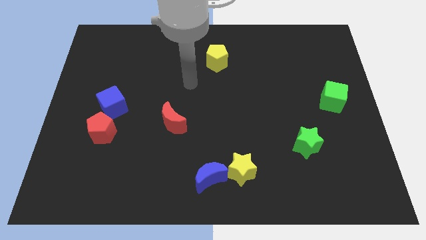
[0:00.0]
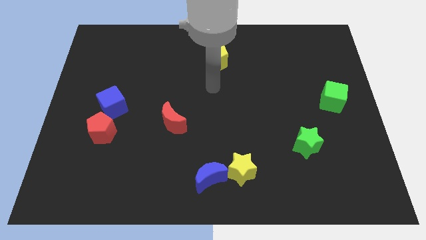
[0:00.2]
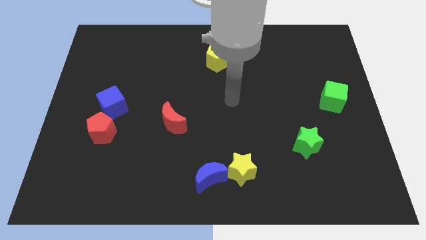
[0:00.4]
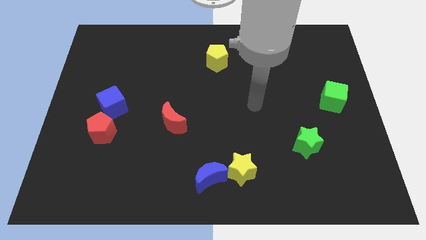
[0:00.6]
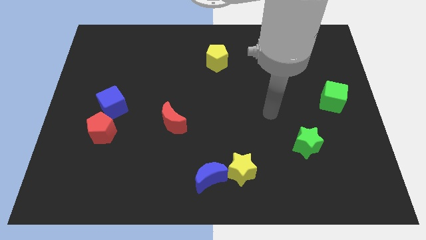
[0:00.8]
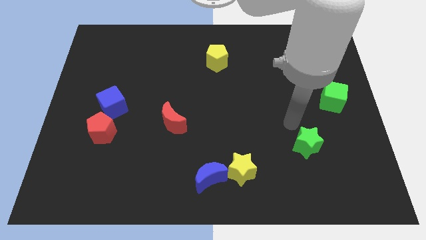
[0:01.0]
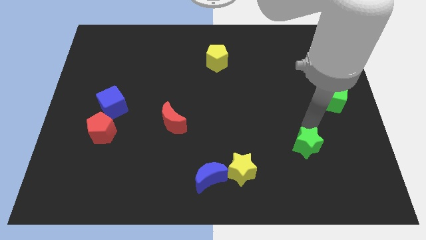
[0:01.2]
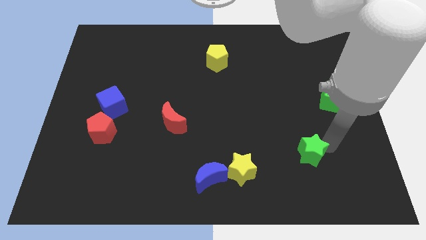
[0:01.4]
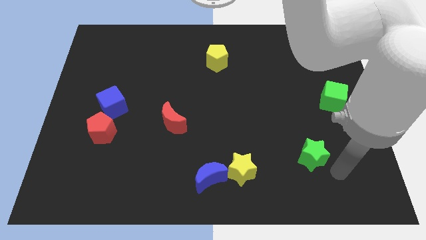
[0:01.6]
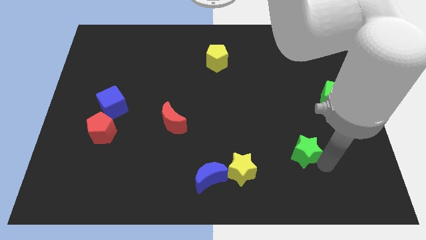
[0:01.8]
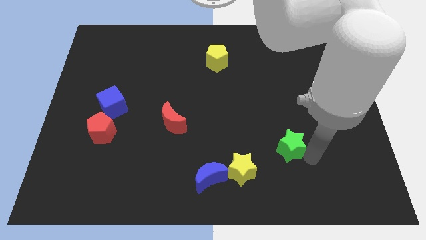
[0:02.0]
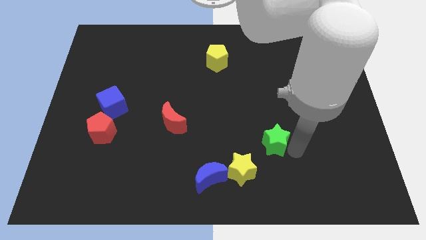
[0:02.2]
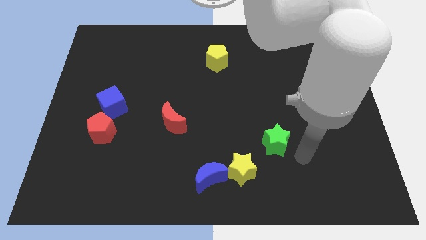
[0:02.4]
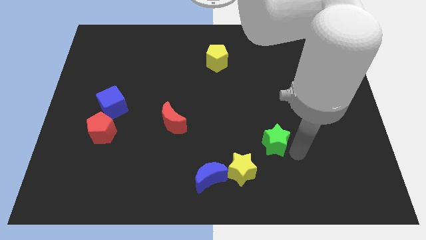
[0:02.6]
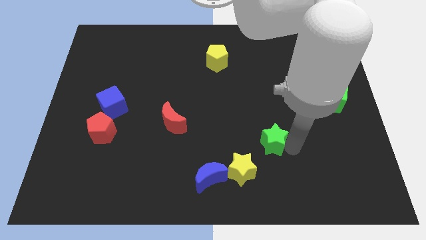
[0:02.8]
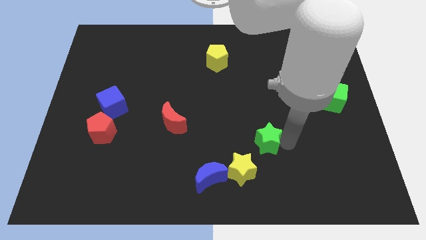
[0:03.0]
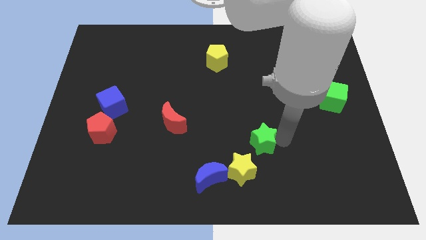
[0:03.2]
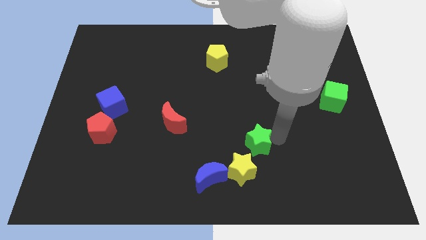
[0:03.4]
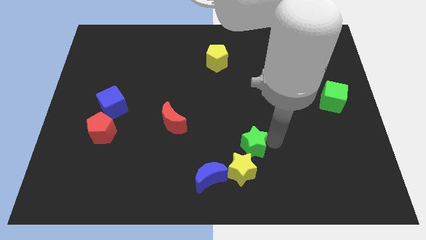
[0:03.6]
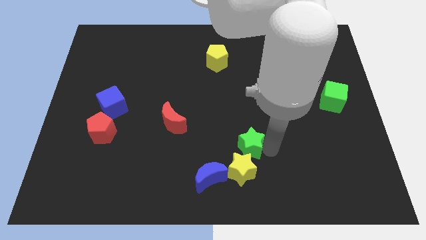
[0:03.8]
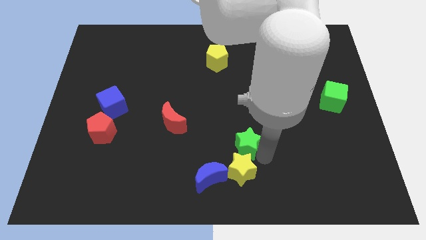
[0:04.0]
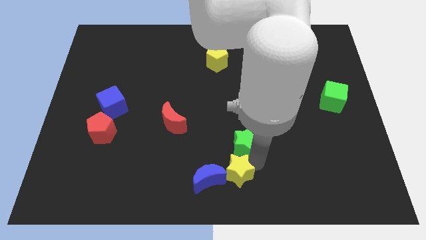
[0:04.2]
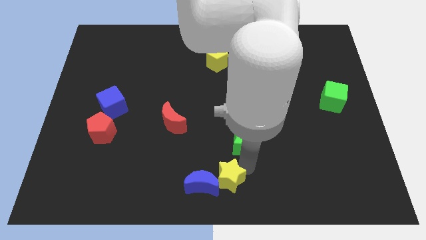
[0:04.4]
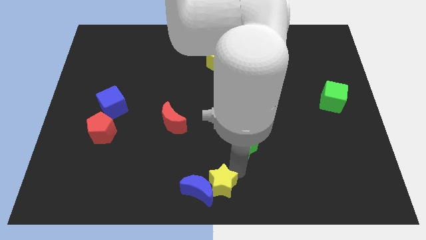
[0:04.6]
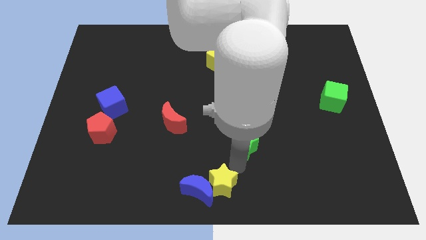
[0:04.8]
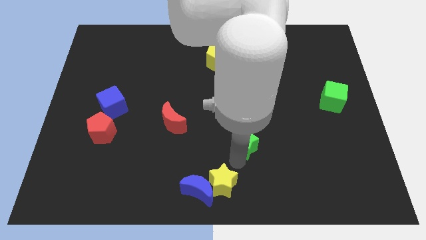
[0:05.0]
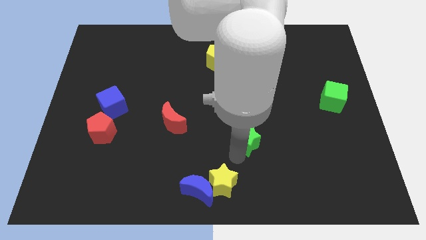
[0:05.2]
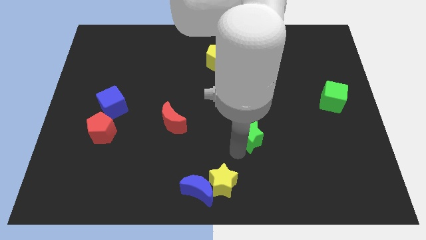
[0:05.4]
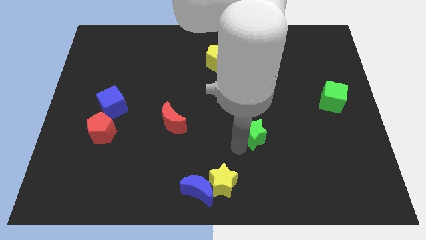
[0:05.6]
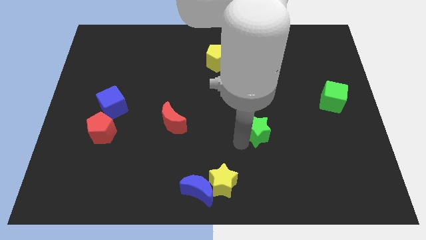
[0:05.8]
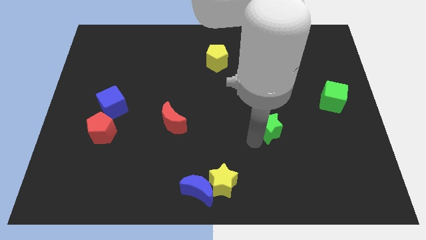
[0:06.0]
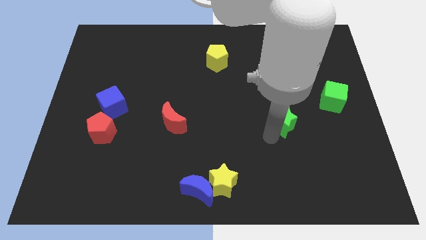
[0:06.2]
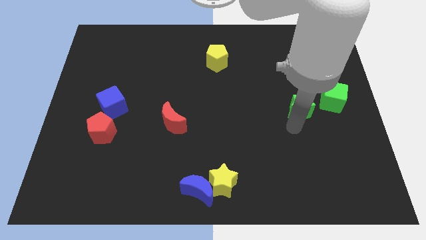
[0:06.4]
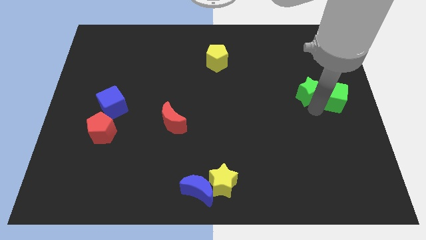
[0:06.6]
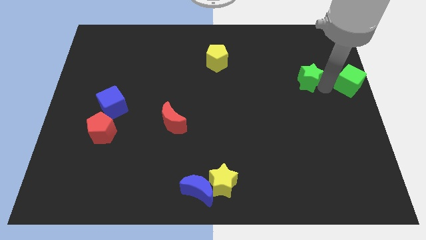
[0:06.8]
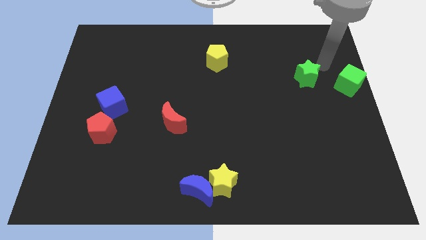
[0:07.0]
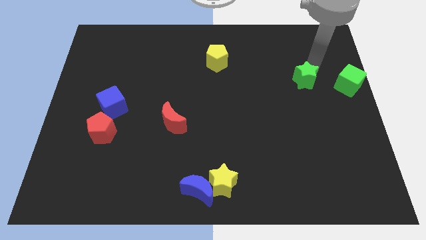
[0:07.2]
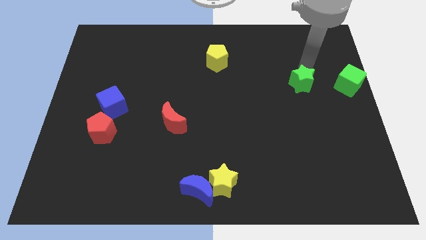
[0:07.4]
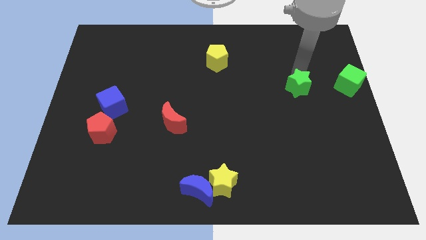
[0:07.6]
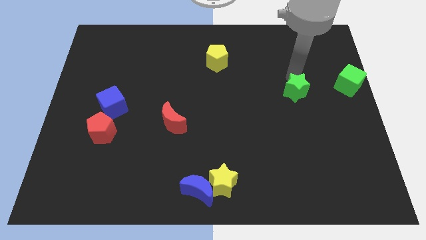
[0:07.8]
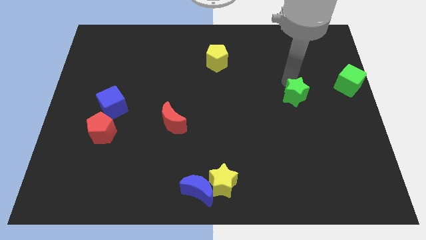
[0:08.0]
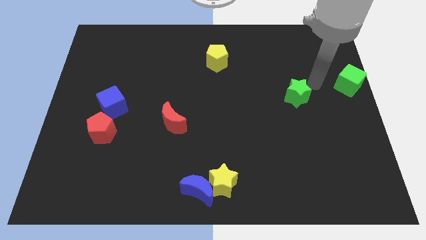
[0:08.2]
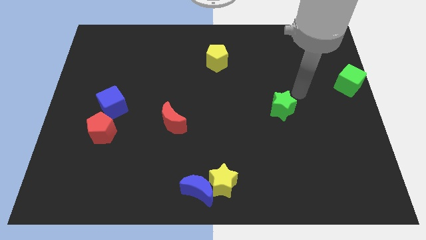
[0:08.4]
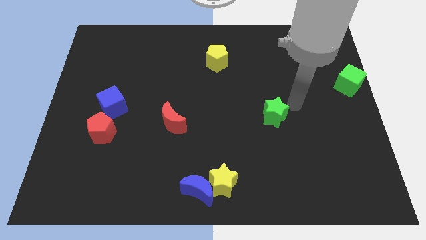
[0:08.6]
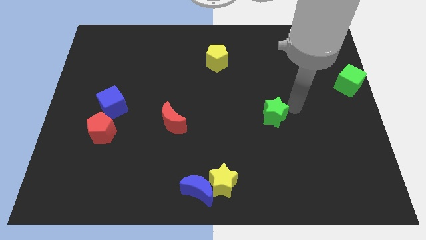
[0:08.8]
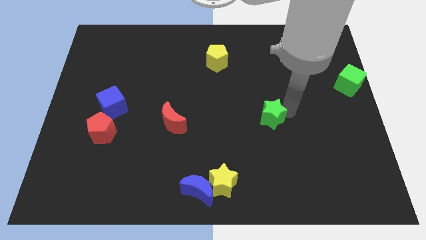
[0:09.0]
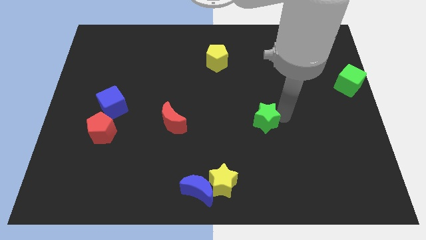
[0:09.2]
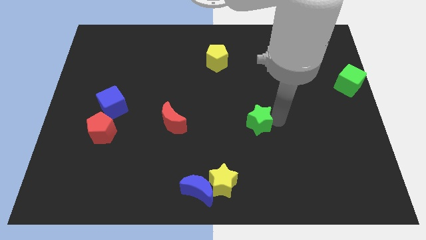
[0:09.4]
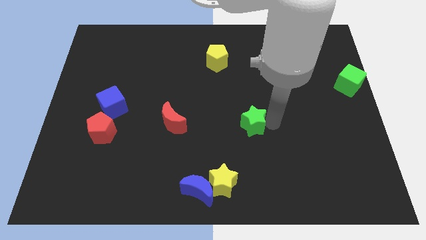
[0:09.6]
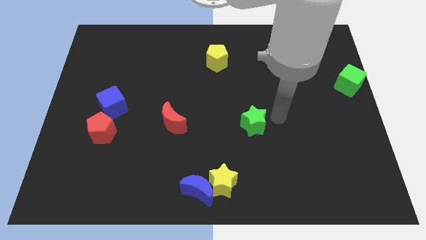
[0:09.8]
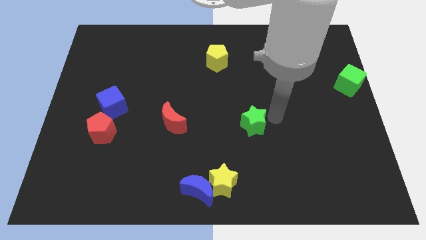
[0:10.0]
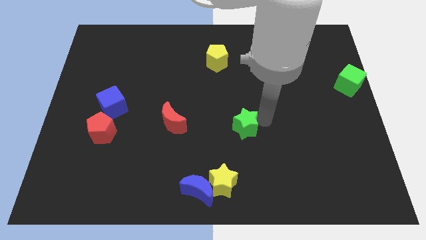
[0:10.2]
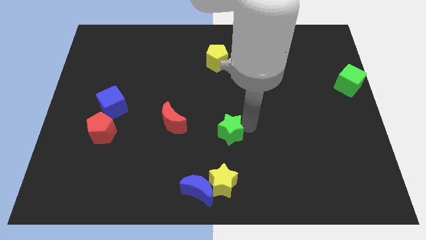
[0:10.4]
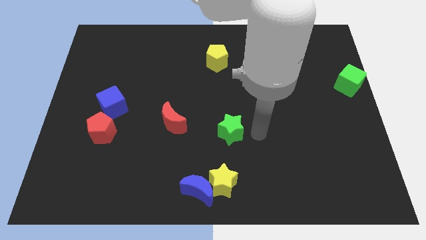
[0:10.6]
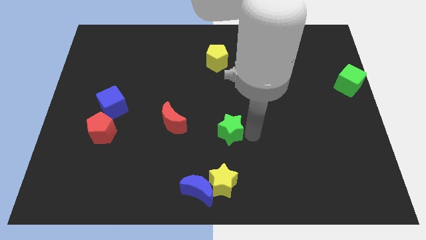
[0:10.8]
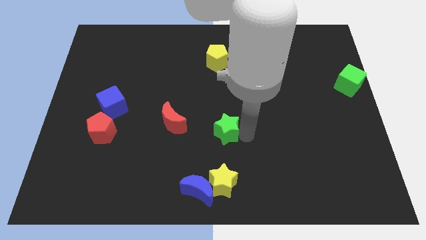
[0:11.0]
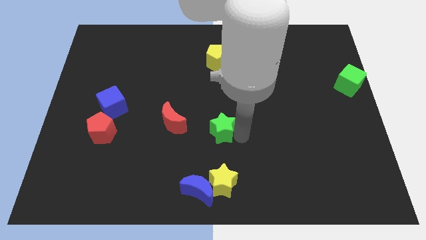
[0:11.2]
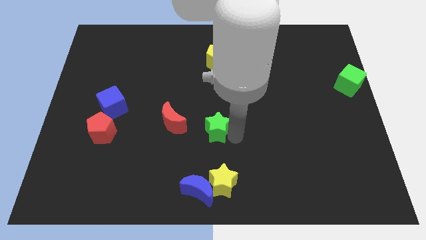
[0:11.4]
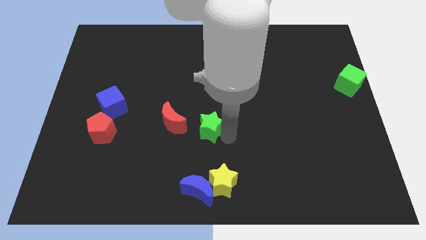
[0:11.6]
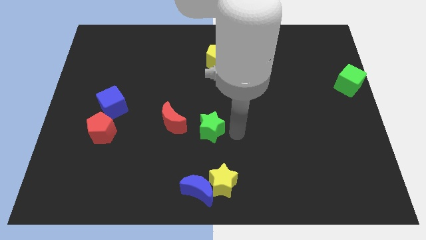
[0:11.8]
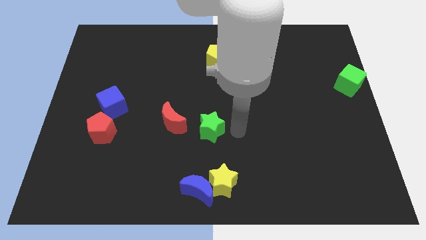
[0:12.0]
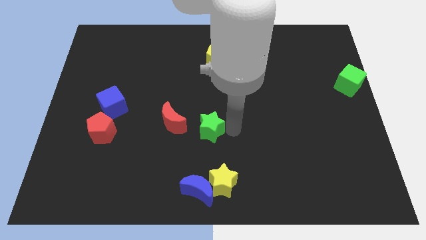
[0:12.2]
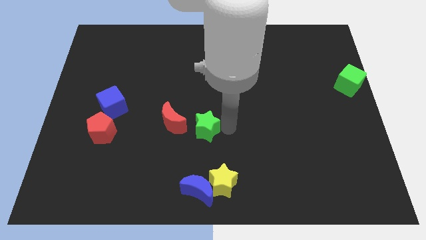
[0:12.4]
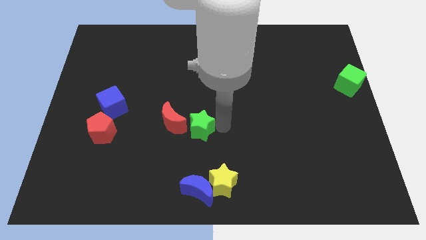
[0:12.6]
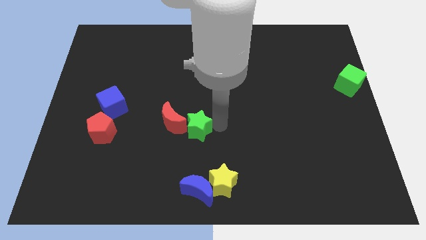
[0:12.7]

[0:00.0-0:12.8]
push the green star next to the red moon

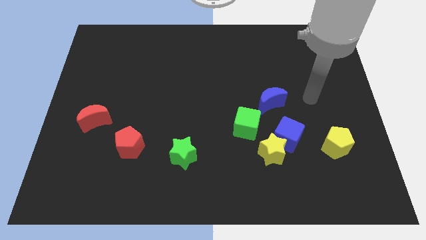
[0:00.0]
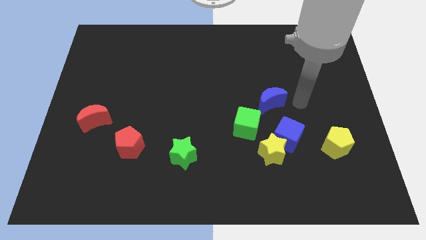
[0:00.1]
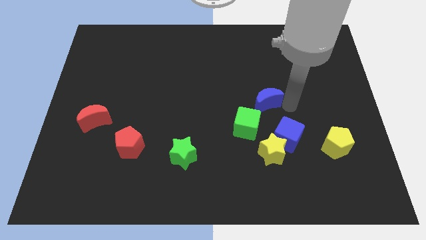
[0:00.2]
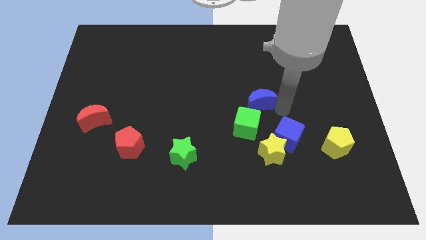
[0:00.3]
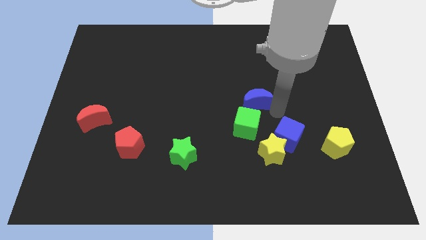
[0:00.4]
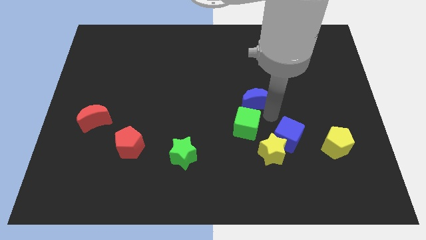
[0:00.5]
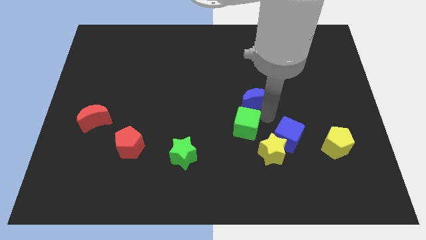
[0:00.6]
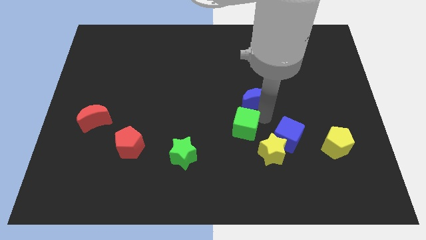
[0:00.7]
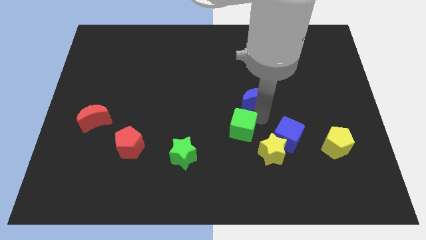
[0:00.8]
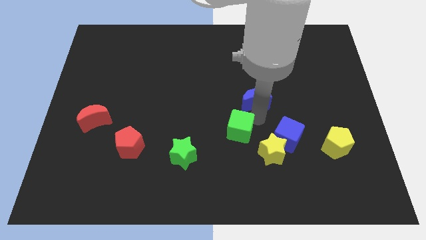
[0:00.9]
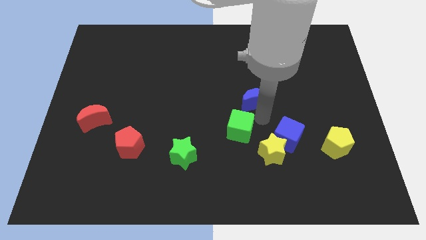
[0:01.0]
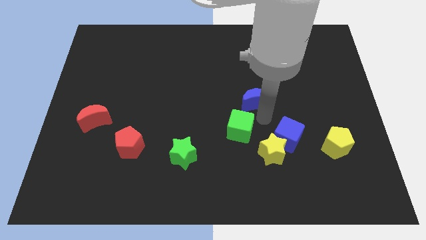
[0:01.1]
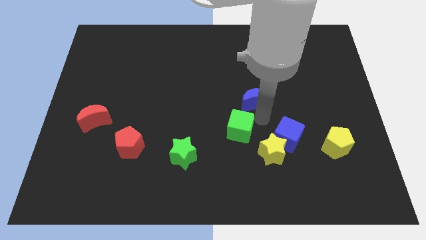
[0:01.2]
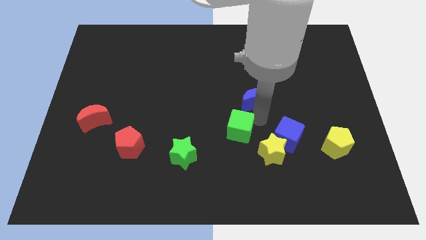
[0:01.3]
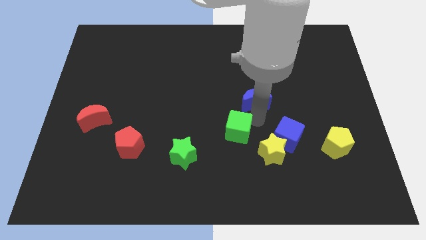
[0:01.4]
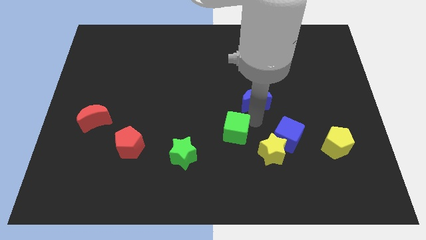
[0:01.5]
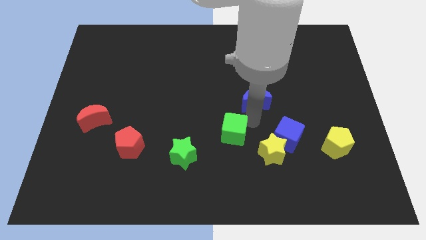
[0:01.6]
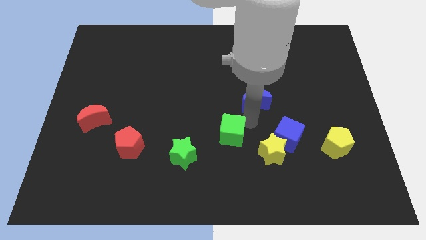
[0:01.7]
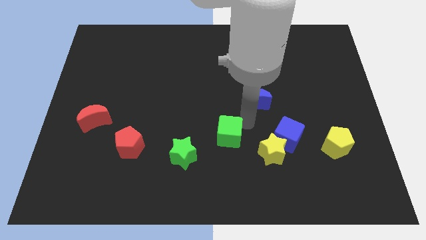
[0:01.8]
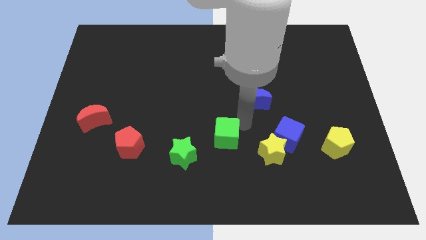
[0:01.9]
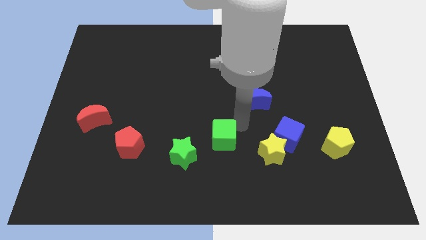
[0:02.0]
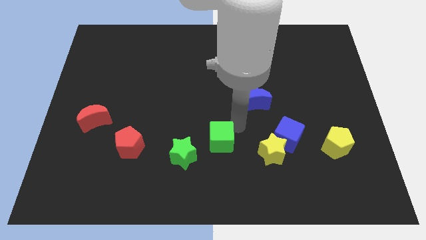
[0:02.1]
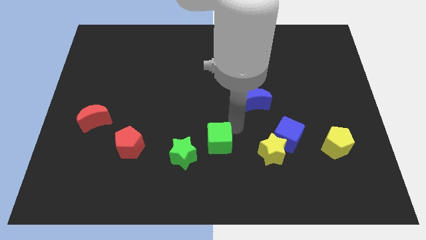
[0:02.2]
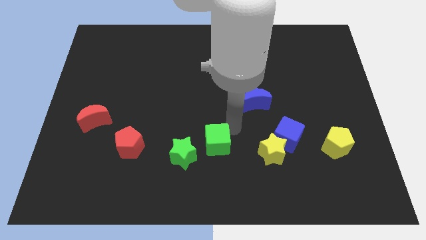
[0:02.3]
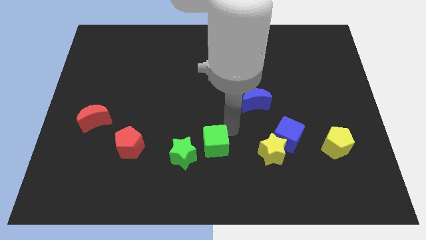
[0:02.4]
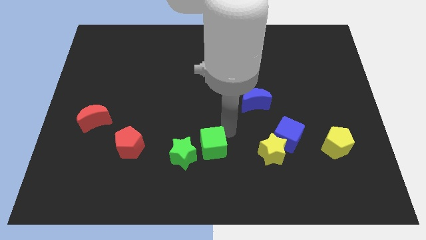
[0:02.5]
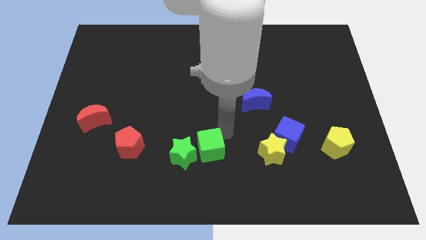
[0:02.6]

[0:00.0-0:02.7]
put the green cube towards the green star
